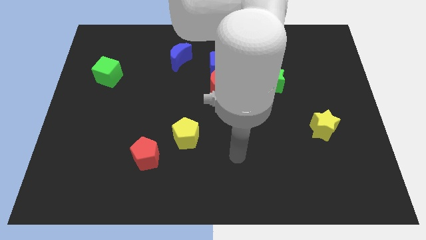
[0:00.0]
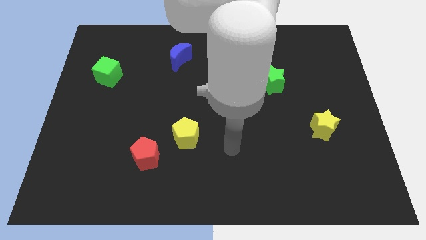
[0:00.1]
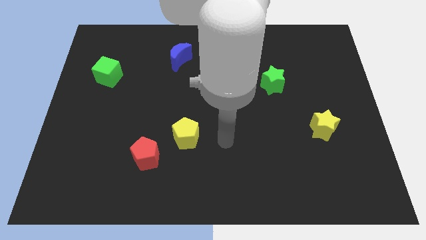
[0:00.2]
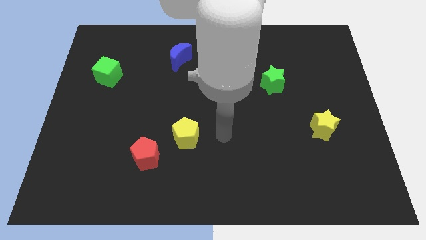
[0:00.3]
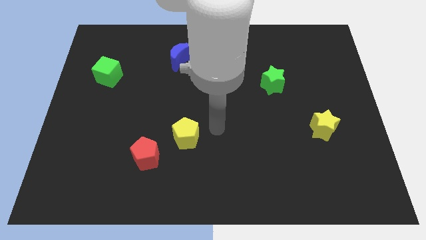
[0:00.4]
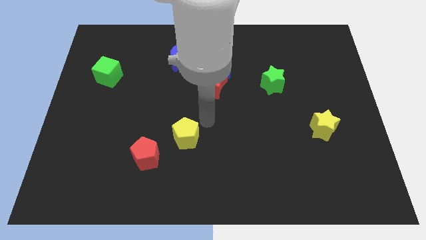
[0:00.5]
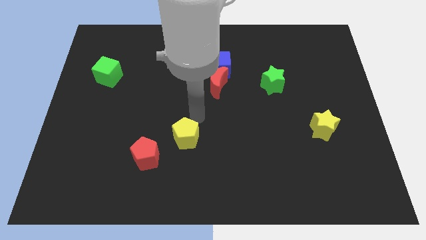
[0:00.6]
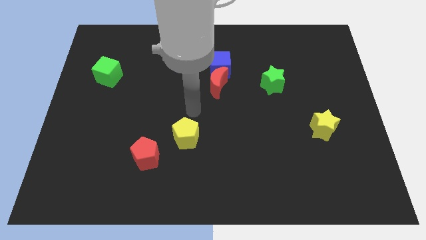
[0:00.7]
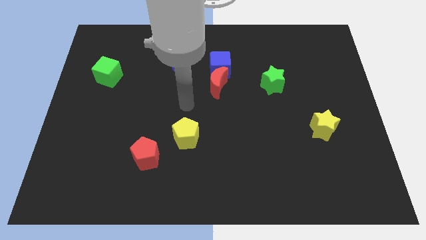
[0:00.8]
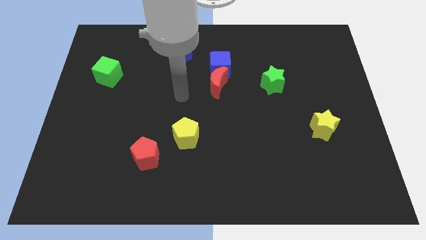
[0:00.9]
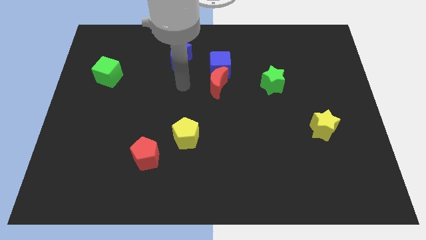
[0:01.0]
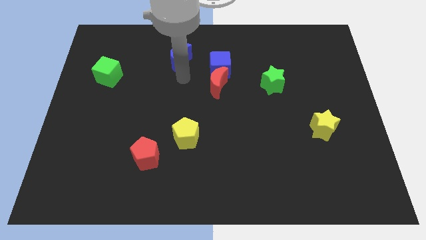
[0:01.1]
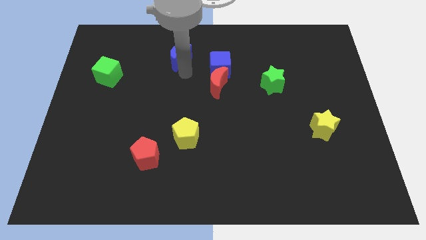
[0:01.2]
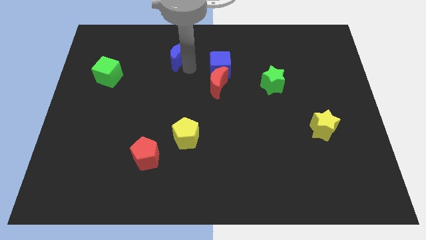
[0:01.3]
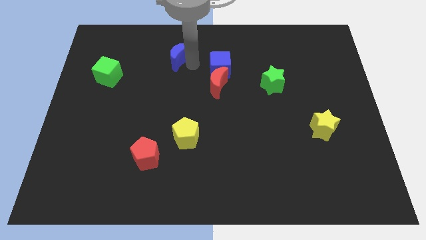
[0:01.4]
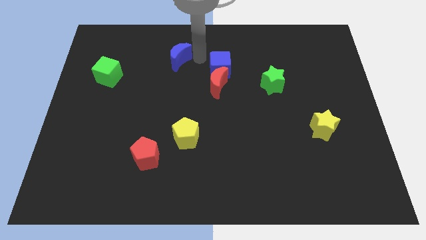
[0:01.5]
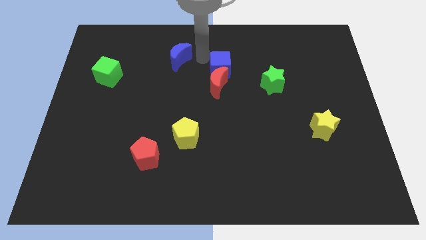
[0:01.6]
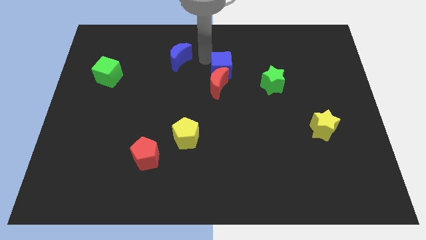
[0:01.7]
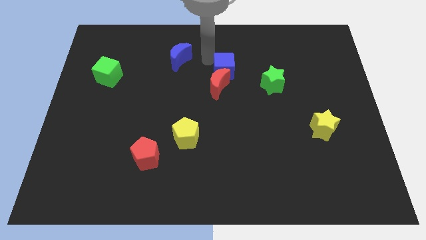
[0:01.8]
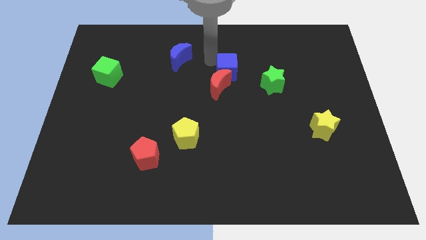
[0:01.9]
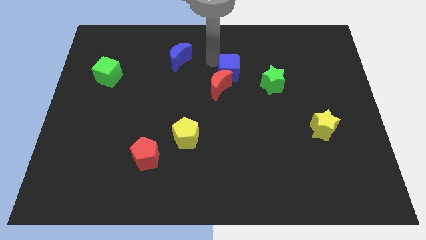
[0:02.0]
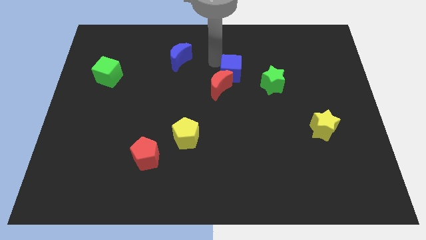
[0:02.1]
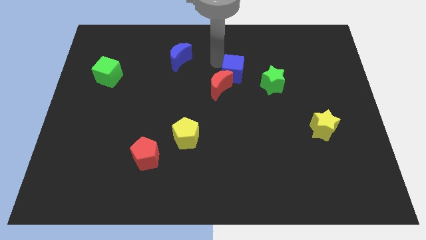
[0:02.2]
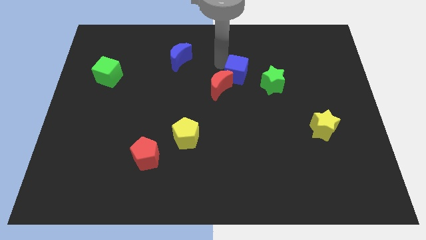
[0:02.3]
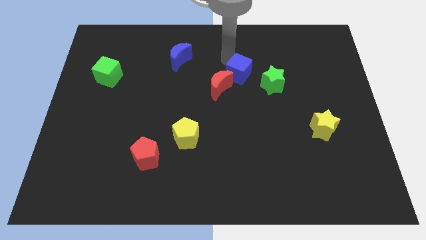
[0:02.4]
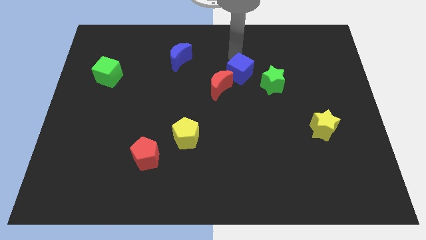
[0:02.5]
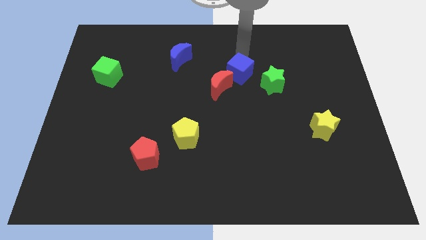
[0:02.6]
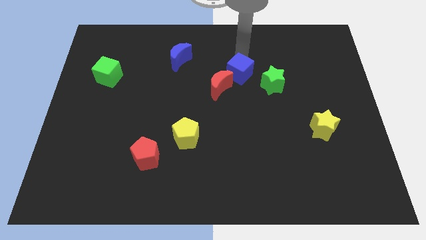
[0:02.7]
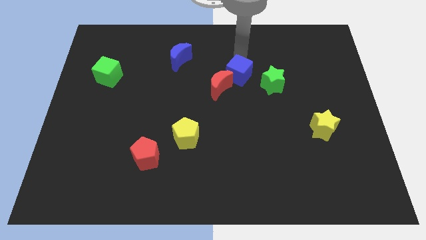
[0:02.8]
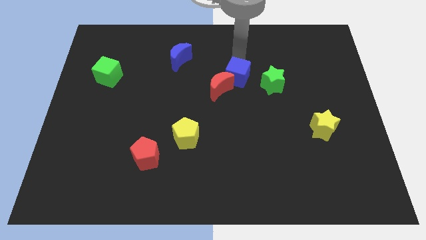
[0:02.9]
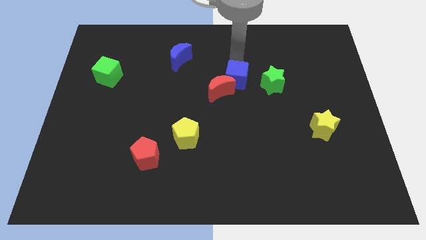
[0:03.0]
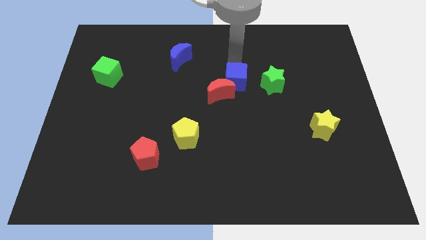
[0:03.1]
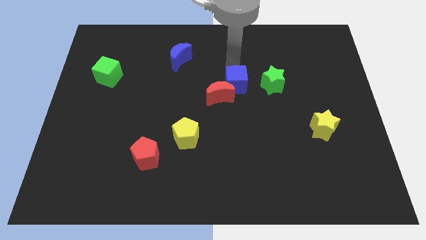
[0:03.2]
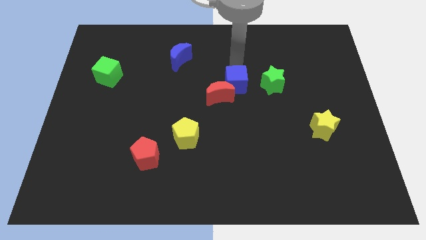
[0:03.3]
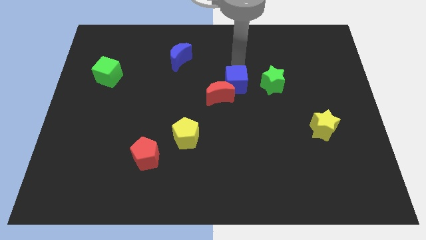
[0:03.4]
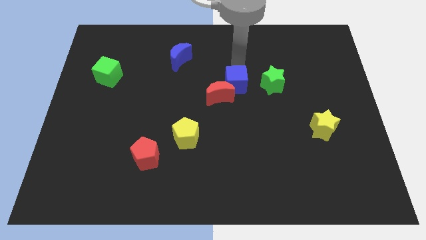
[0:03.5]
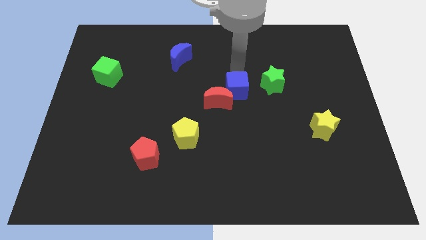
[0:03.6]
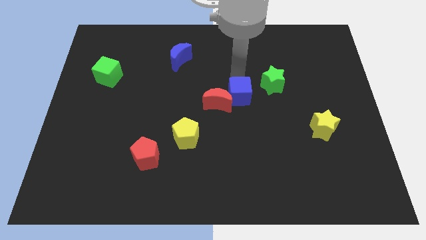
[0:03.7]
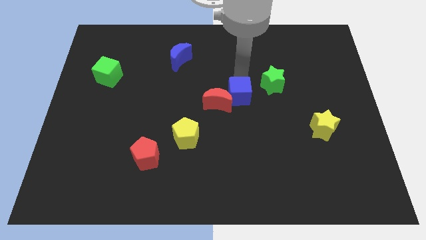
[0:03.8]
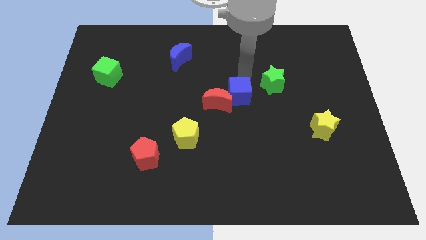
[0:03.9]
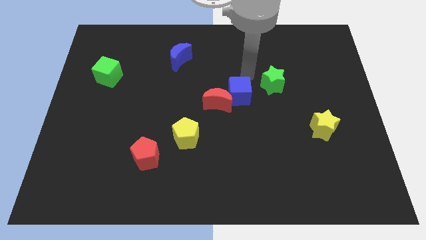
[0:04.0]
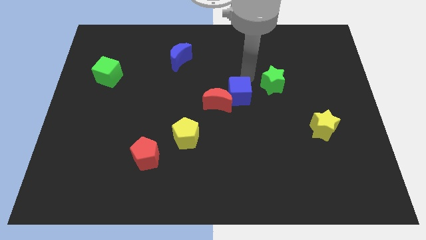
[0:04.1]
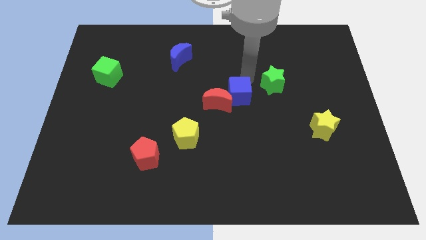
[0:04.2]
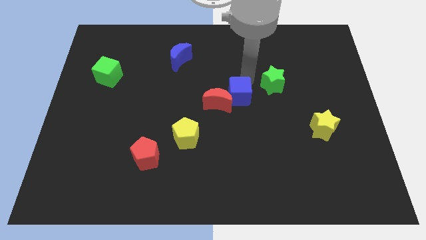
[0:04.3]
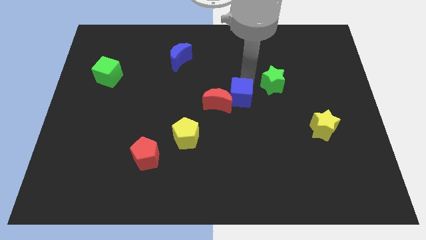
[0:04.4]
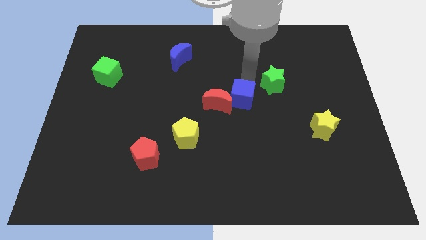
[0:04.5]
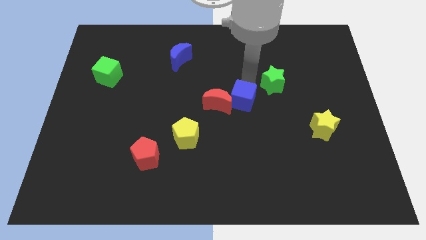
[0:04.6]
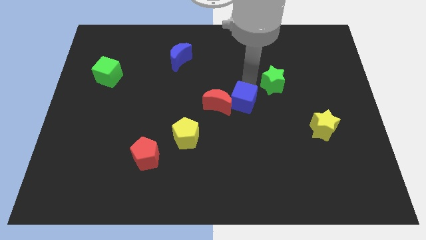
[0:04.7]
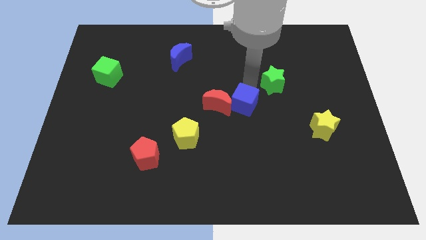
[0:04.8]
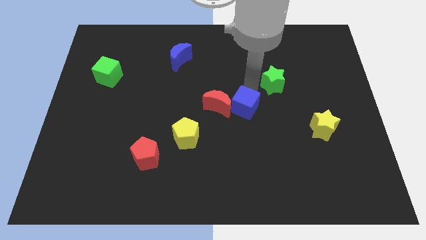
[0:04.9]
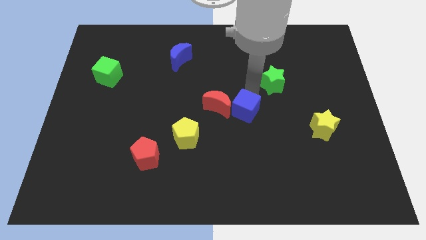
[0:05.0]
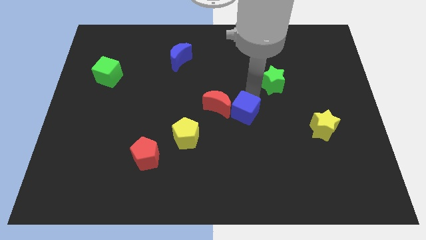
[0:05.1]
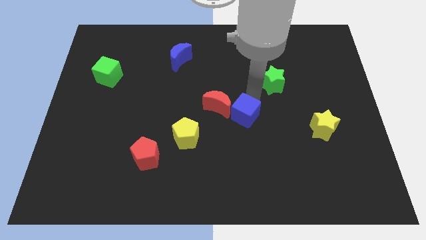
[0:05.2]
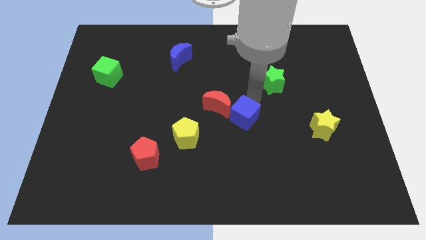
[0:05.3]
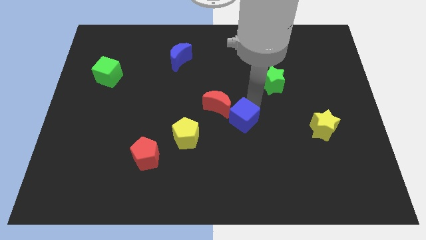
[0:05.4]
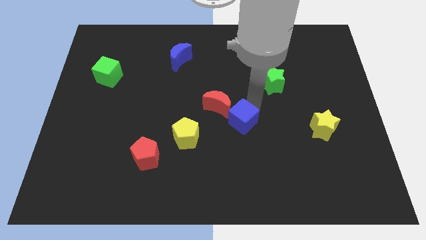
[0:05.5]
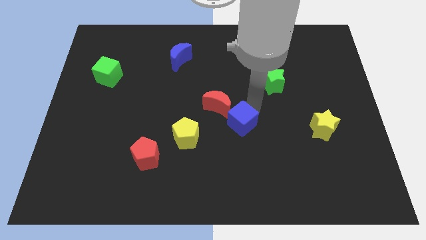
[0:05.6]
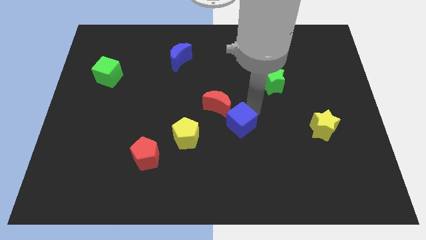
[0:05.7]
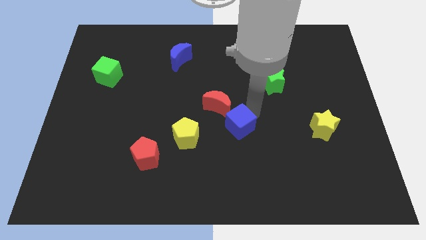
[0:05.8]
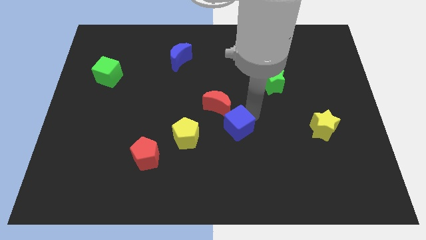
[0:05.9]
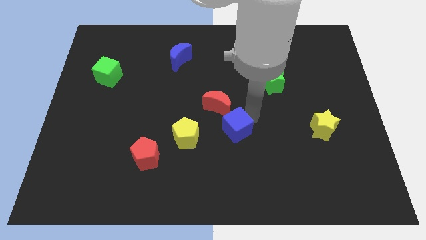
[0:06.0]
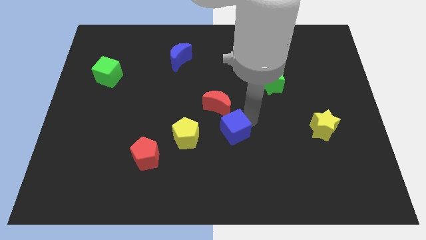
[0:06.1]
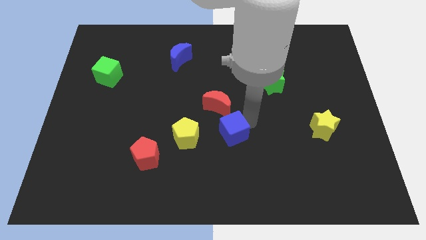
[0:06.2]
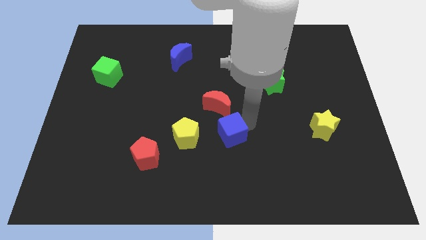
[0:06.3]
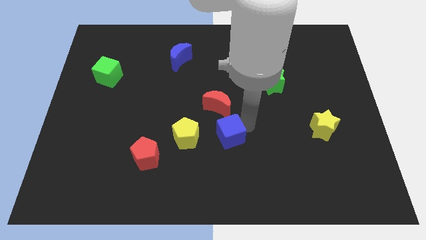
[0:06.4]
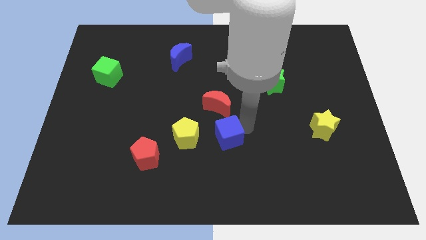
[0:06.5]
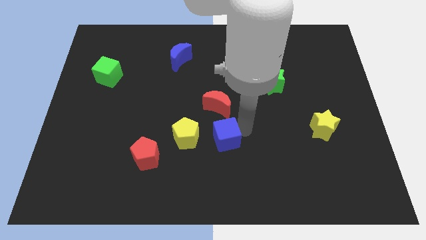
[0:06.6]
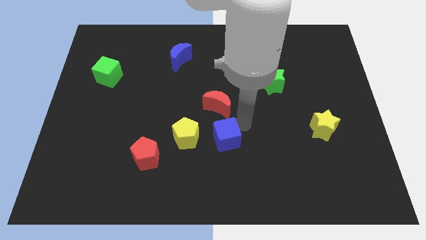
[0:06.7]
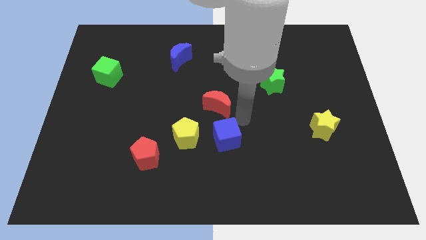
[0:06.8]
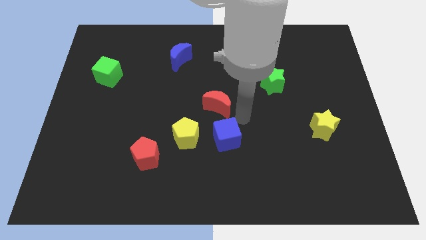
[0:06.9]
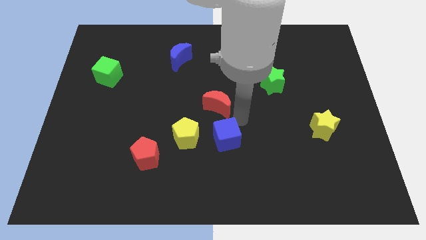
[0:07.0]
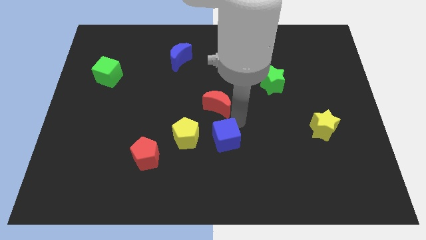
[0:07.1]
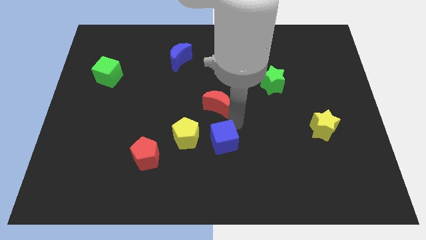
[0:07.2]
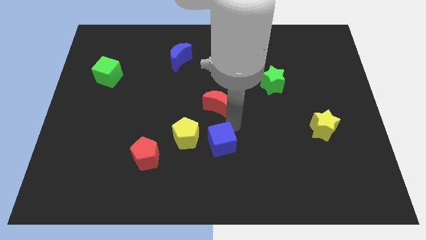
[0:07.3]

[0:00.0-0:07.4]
slide the blue cube to the bottom right side of the yellow pentagon
